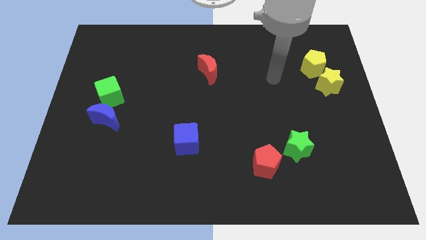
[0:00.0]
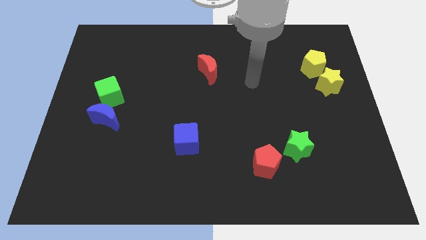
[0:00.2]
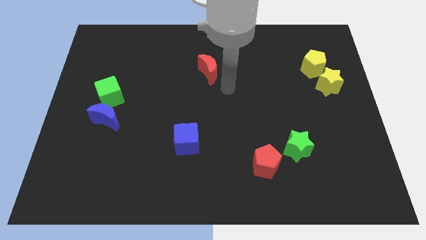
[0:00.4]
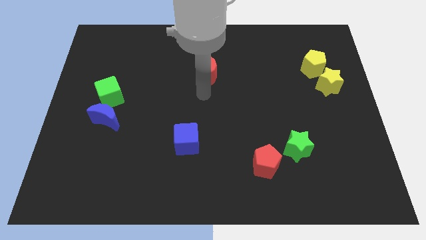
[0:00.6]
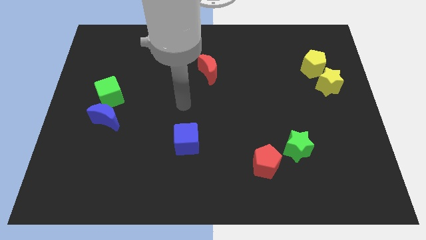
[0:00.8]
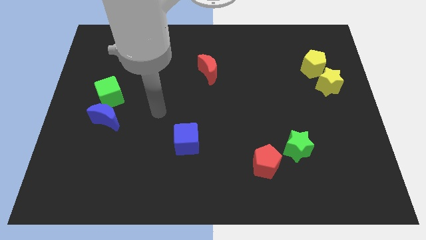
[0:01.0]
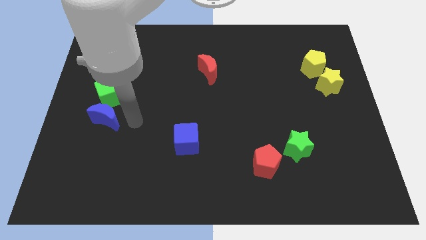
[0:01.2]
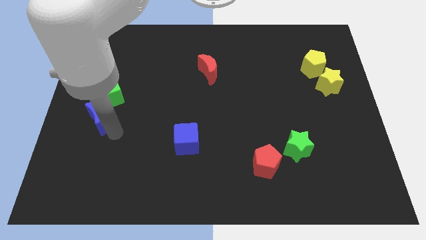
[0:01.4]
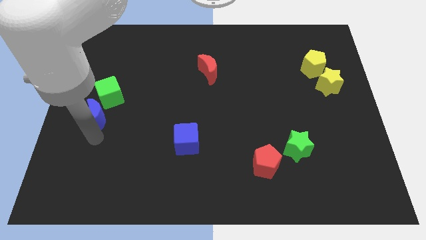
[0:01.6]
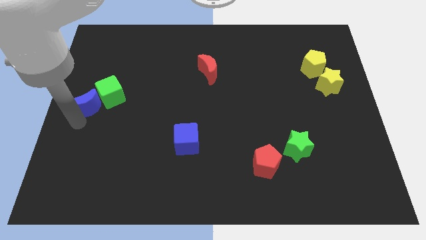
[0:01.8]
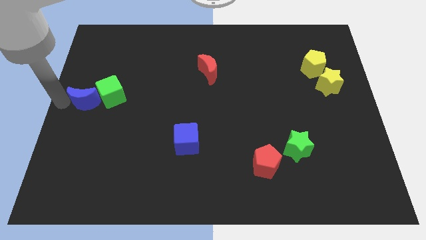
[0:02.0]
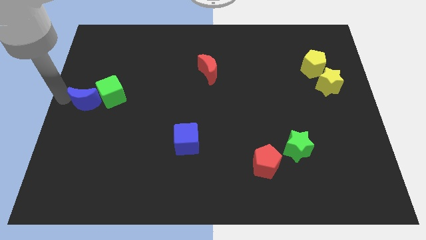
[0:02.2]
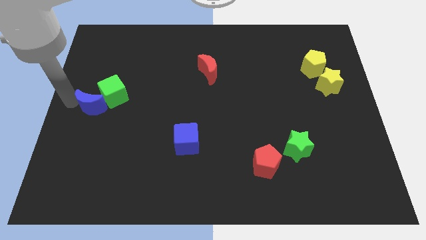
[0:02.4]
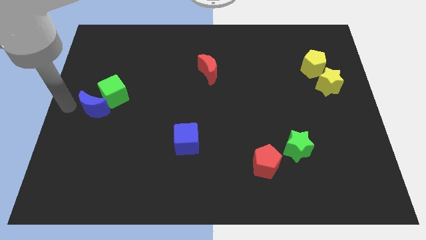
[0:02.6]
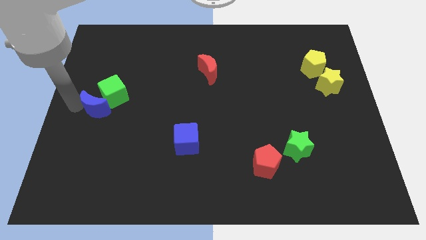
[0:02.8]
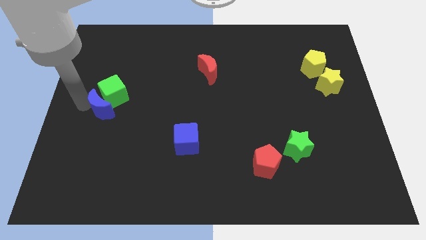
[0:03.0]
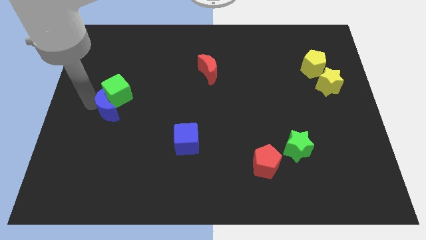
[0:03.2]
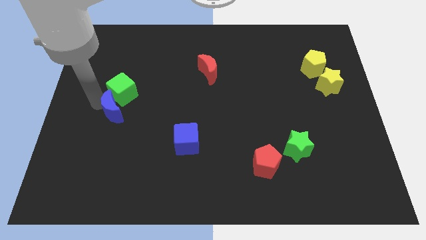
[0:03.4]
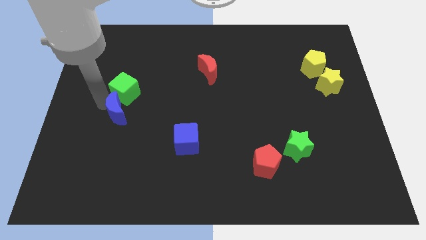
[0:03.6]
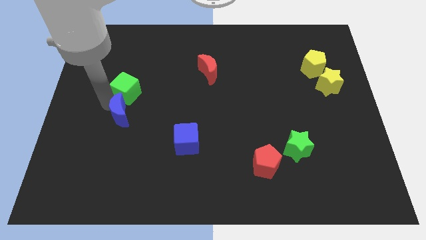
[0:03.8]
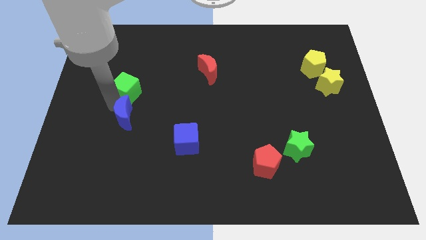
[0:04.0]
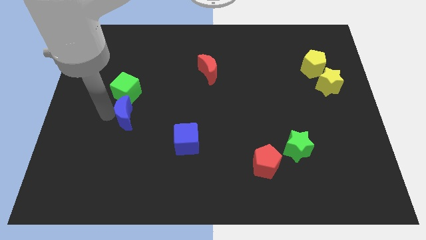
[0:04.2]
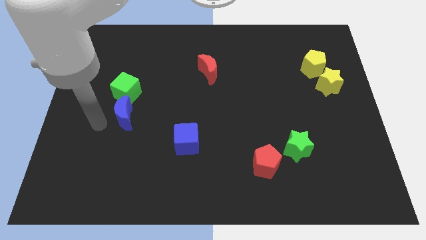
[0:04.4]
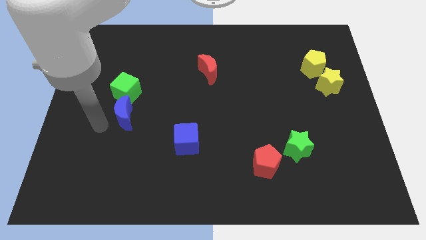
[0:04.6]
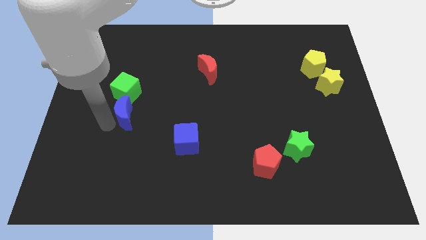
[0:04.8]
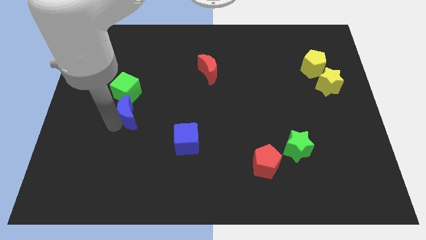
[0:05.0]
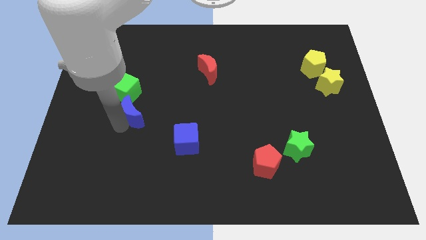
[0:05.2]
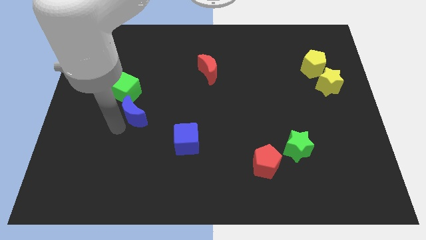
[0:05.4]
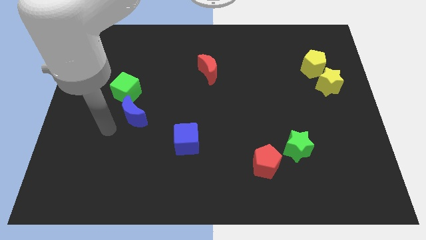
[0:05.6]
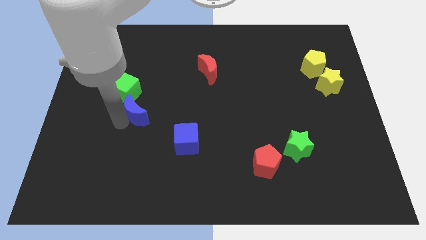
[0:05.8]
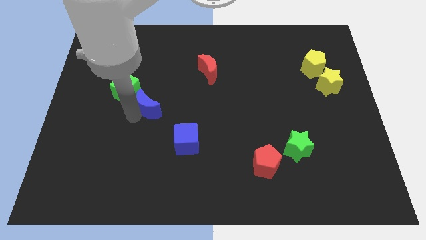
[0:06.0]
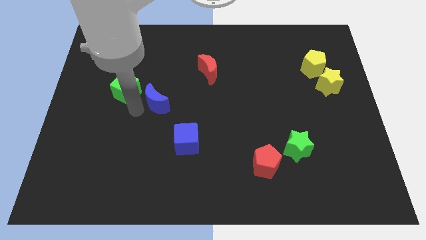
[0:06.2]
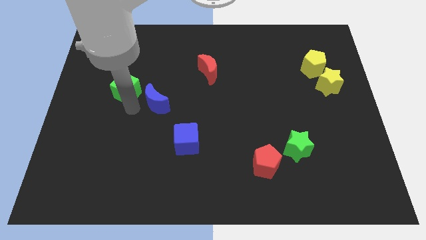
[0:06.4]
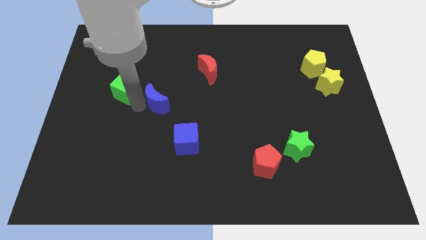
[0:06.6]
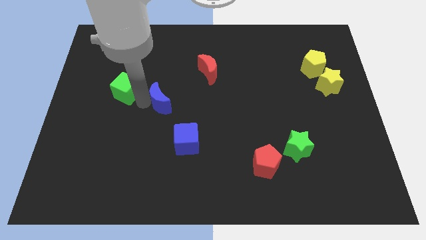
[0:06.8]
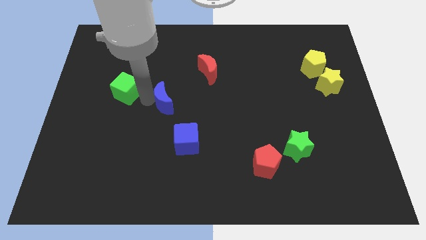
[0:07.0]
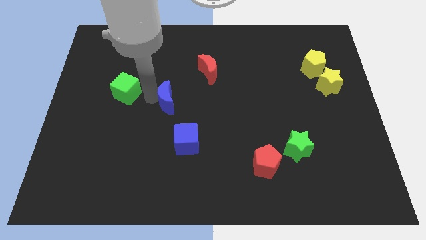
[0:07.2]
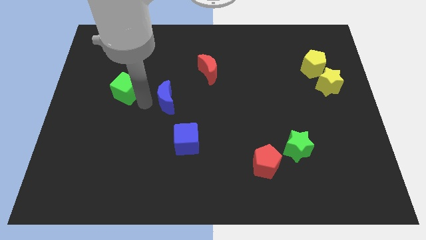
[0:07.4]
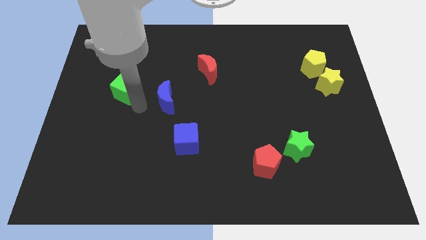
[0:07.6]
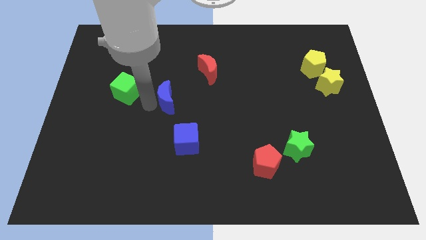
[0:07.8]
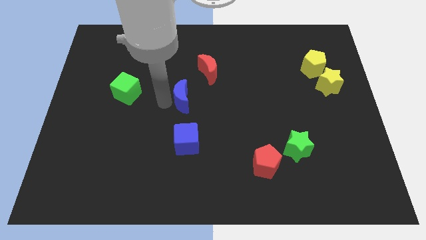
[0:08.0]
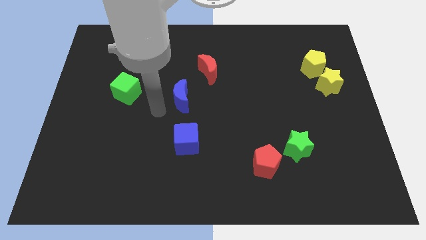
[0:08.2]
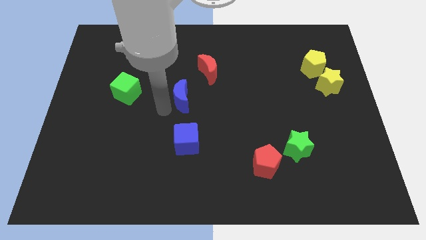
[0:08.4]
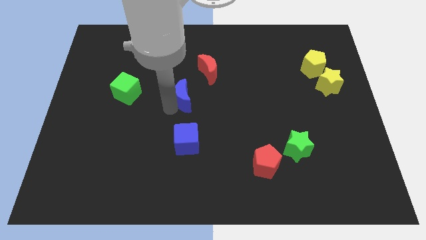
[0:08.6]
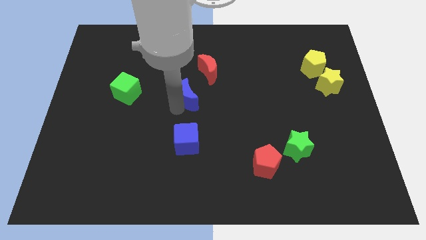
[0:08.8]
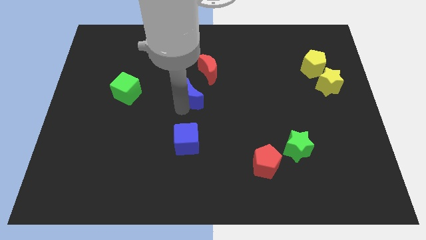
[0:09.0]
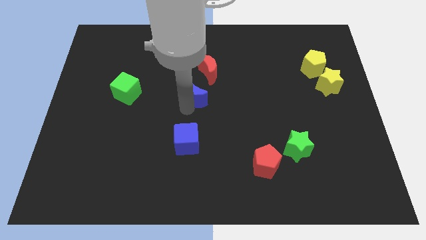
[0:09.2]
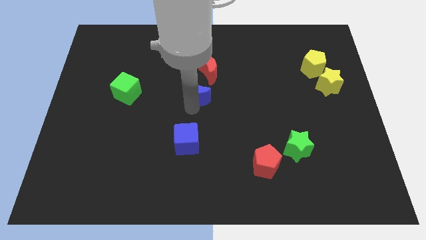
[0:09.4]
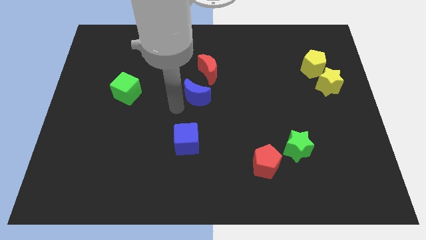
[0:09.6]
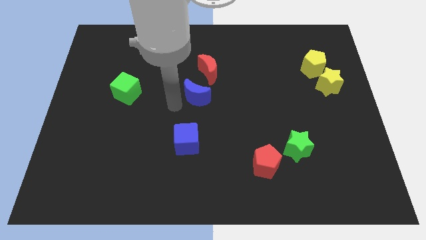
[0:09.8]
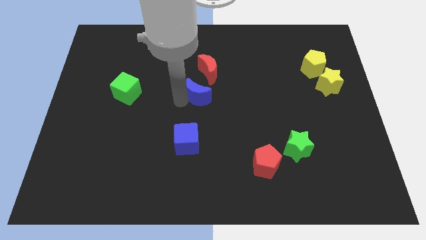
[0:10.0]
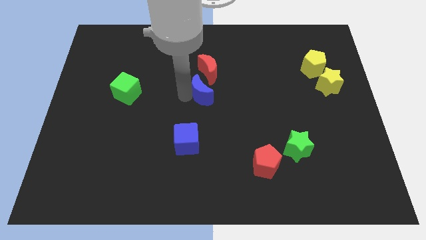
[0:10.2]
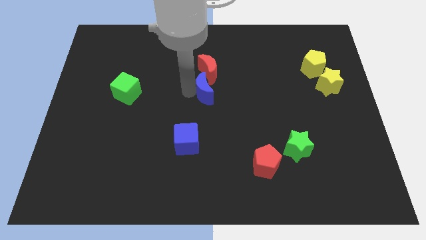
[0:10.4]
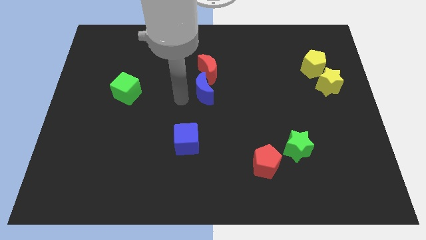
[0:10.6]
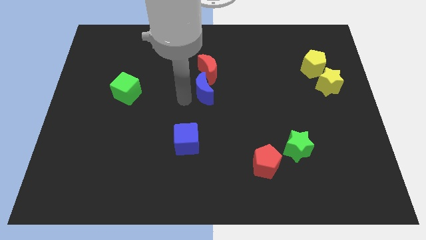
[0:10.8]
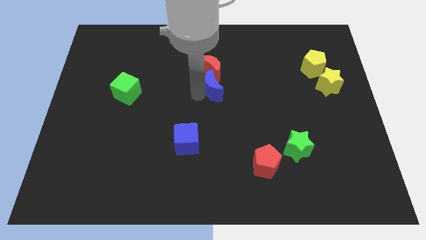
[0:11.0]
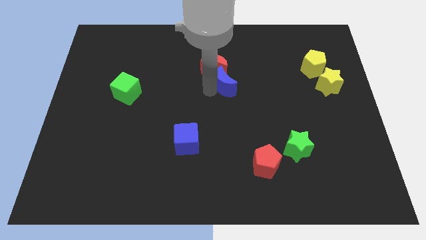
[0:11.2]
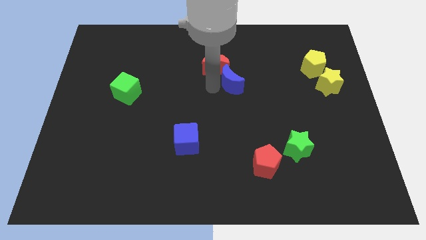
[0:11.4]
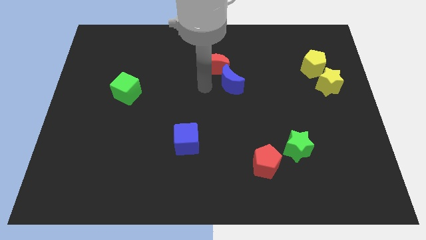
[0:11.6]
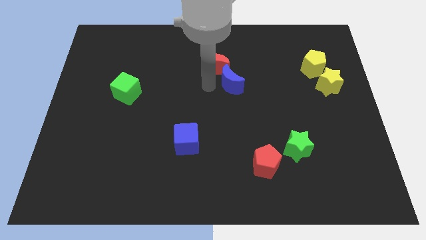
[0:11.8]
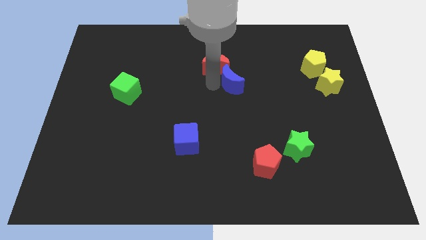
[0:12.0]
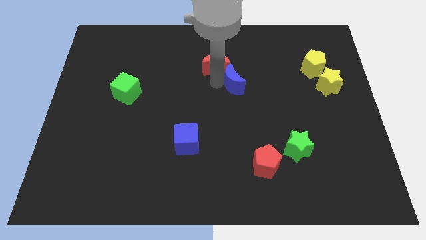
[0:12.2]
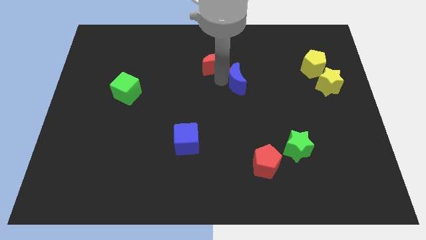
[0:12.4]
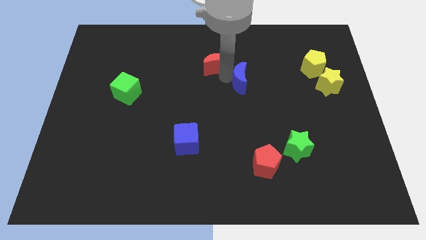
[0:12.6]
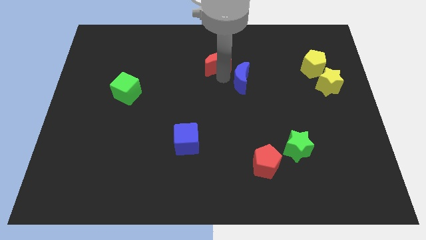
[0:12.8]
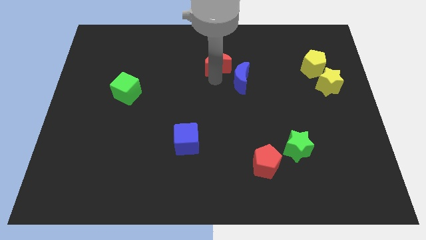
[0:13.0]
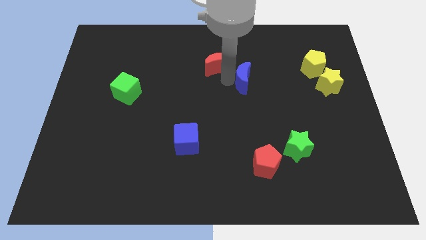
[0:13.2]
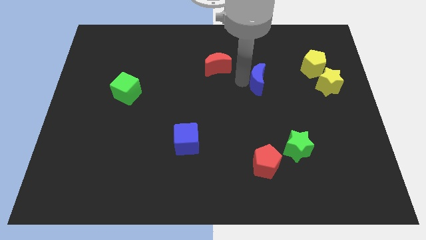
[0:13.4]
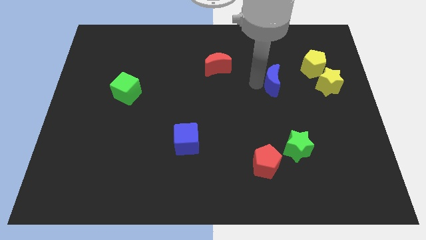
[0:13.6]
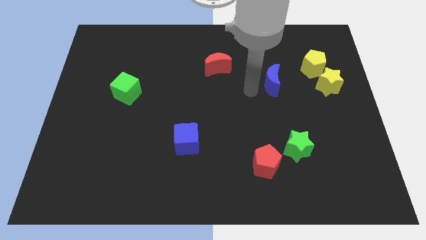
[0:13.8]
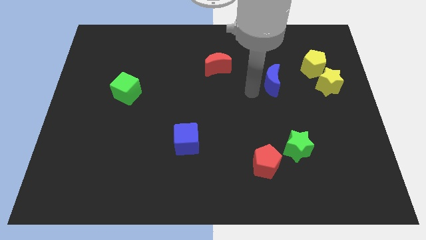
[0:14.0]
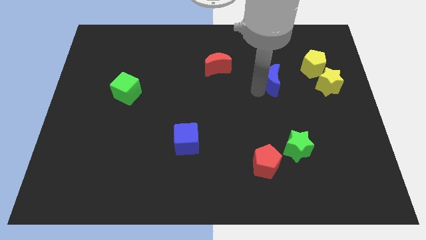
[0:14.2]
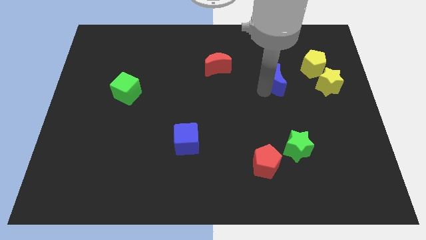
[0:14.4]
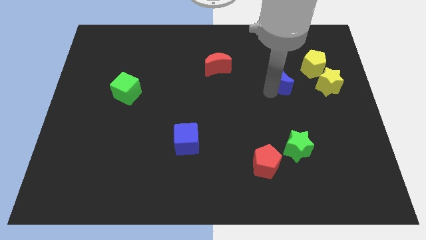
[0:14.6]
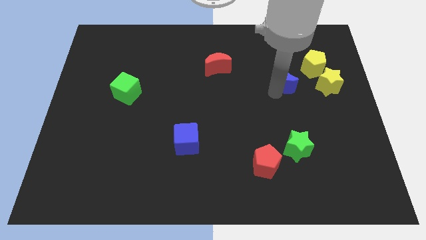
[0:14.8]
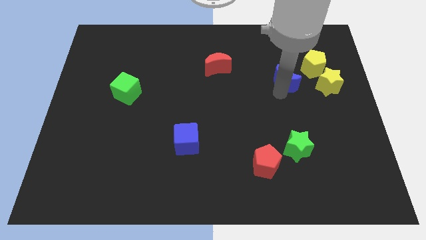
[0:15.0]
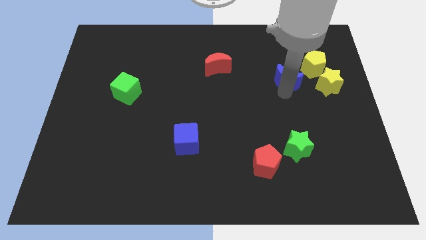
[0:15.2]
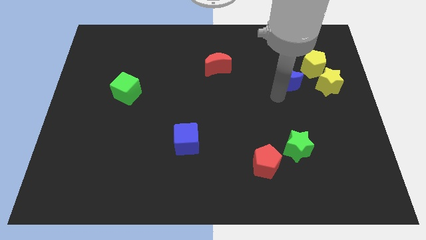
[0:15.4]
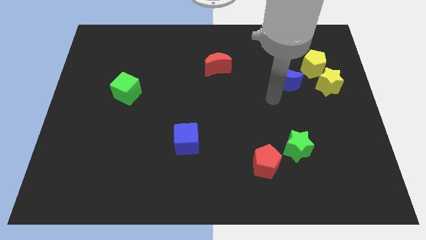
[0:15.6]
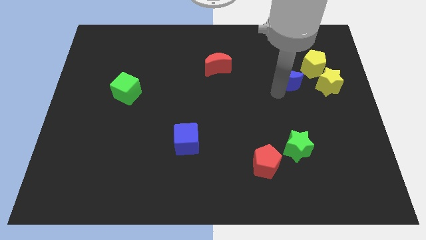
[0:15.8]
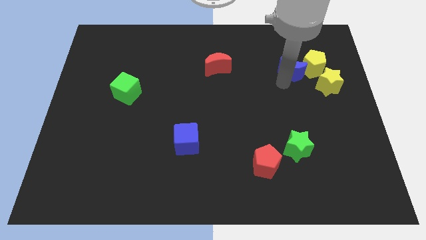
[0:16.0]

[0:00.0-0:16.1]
put the blue moon to the yellow pentagon
